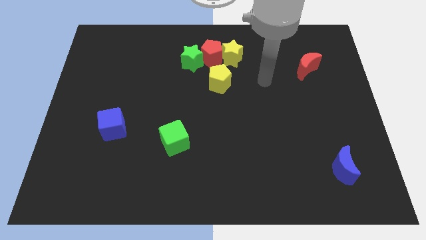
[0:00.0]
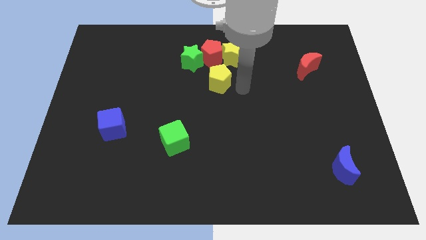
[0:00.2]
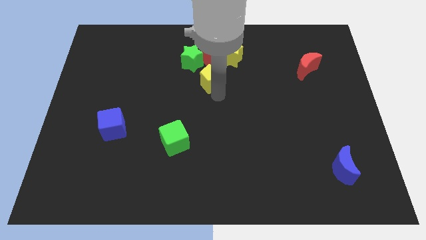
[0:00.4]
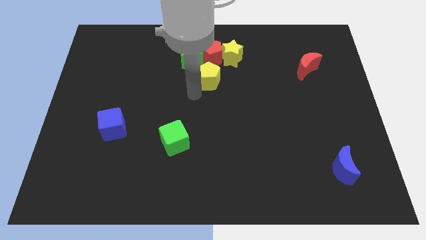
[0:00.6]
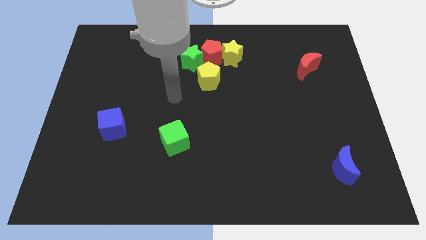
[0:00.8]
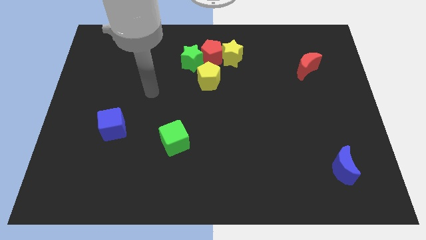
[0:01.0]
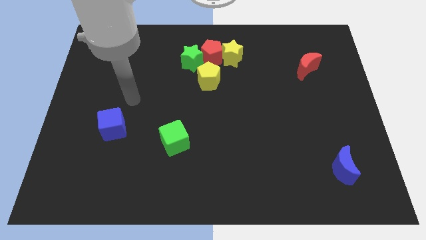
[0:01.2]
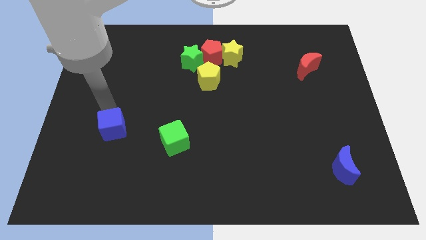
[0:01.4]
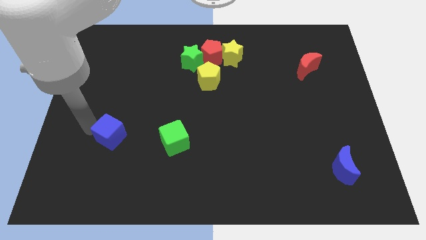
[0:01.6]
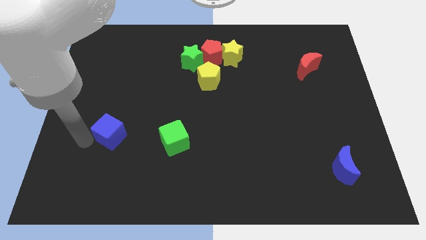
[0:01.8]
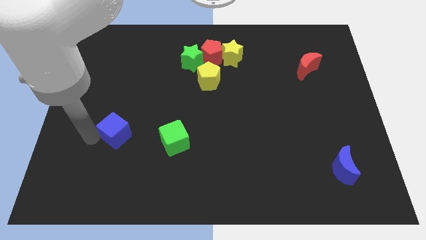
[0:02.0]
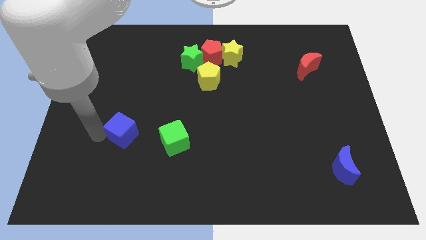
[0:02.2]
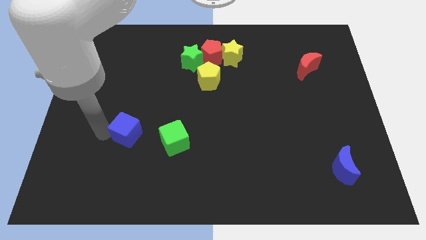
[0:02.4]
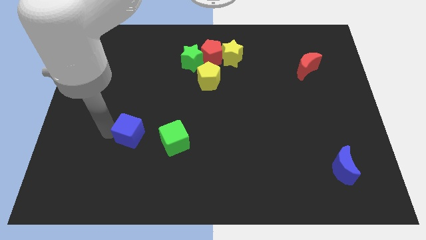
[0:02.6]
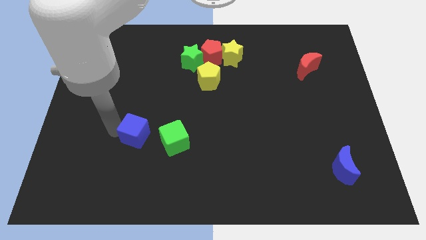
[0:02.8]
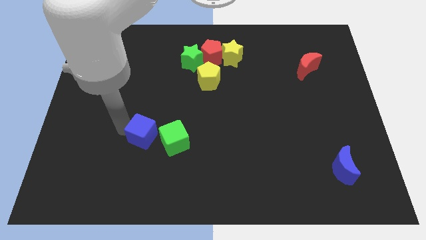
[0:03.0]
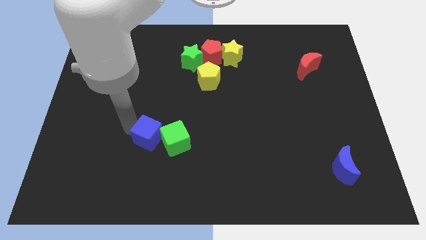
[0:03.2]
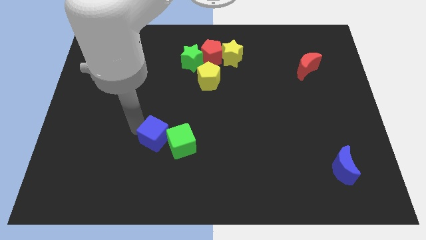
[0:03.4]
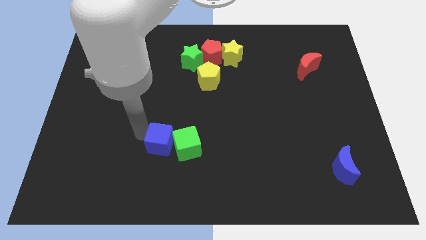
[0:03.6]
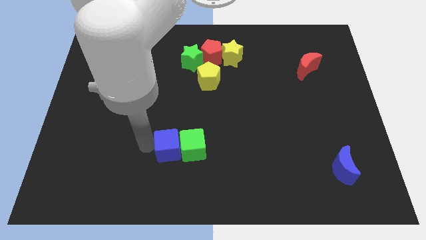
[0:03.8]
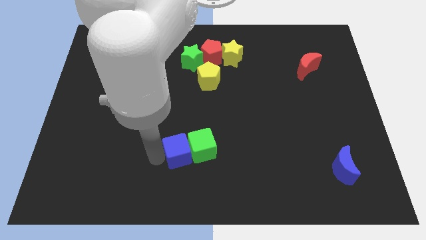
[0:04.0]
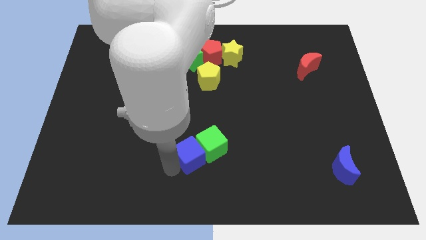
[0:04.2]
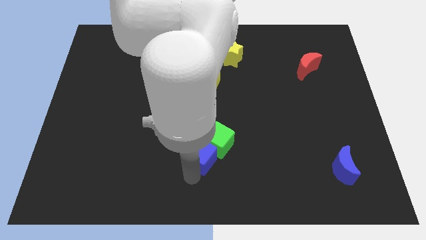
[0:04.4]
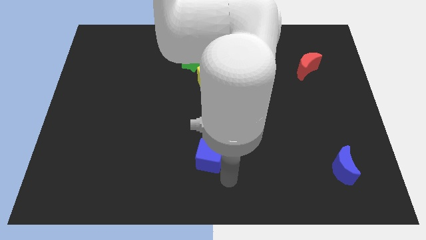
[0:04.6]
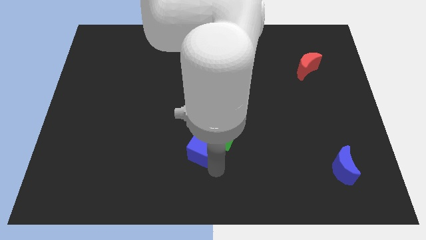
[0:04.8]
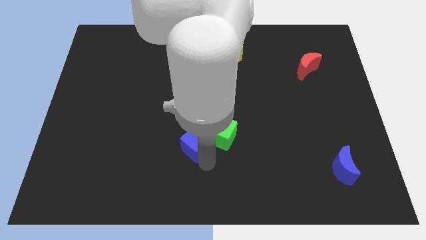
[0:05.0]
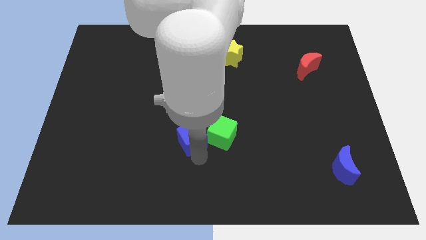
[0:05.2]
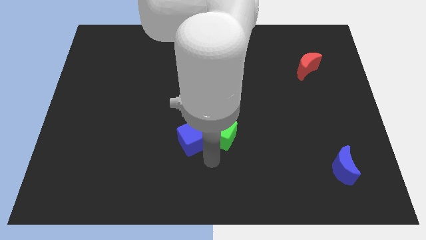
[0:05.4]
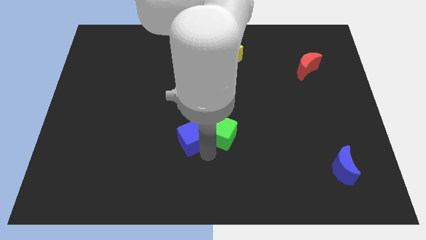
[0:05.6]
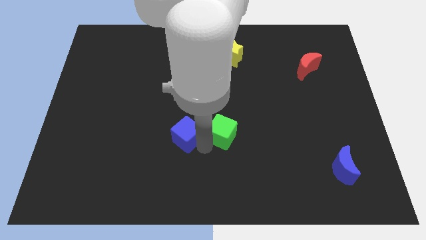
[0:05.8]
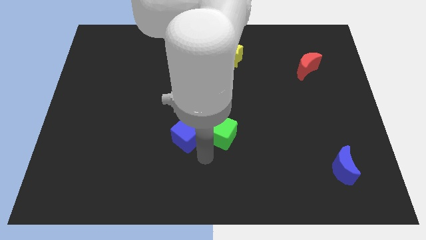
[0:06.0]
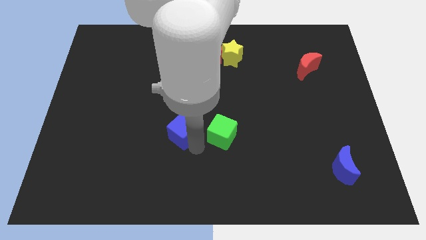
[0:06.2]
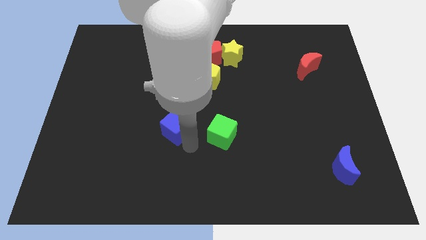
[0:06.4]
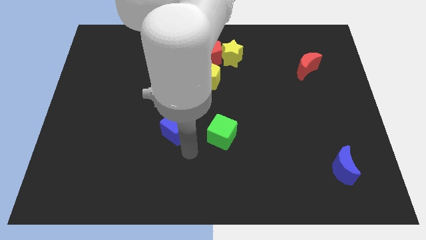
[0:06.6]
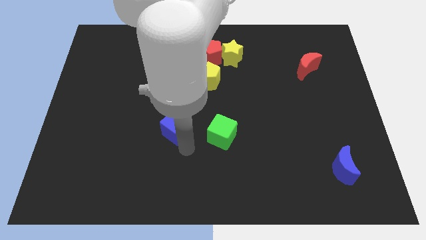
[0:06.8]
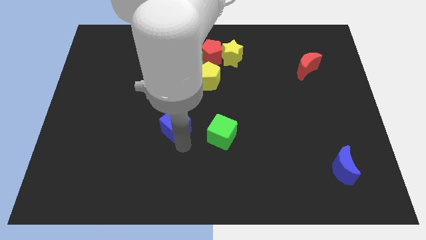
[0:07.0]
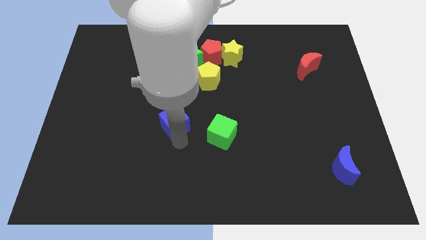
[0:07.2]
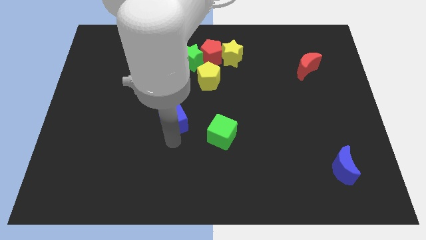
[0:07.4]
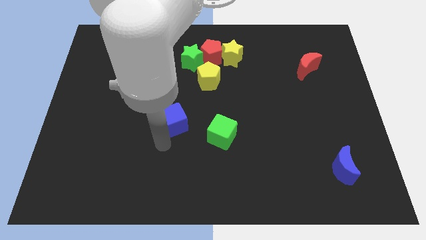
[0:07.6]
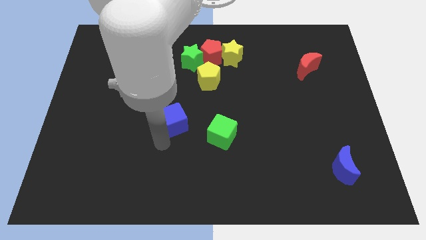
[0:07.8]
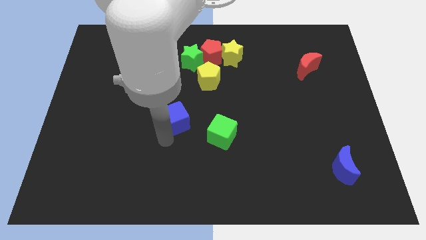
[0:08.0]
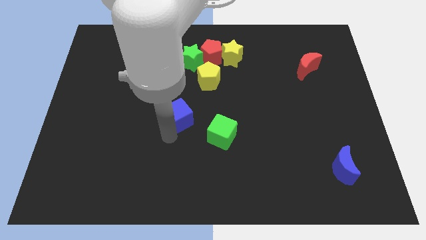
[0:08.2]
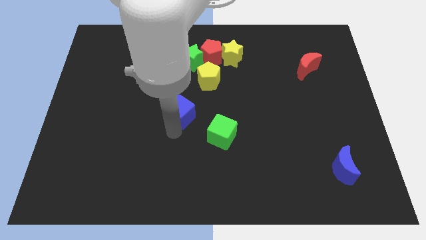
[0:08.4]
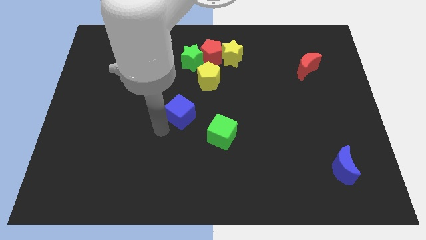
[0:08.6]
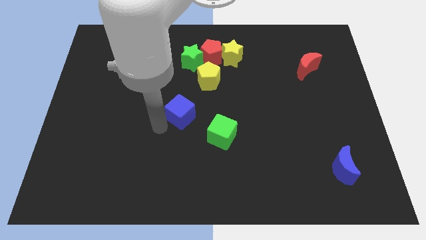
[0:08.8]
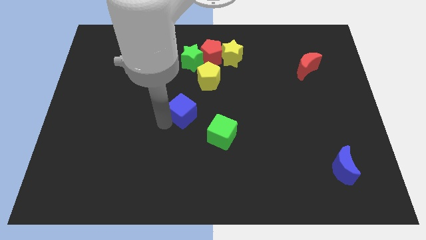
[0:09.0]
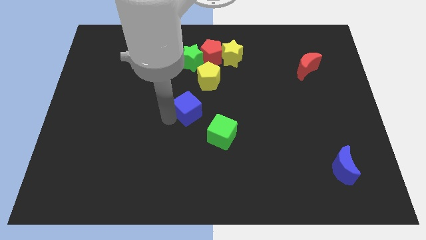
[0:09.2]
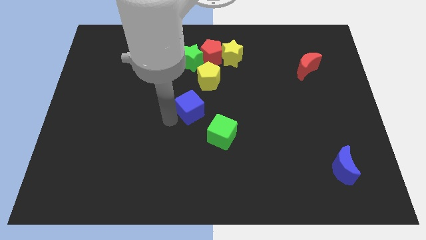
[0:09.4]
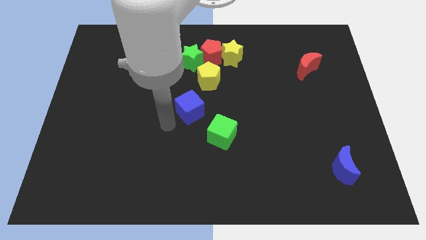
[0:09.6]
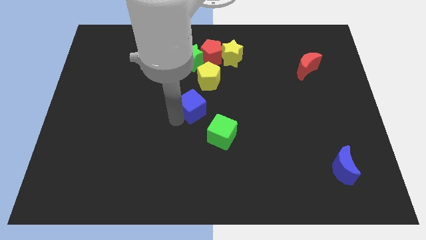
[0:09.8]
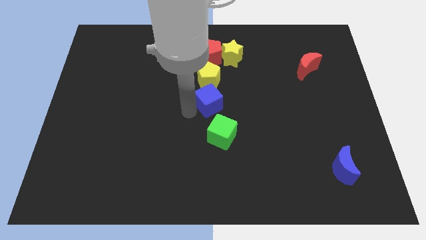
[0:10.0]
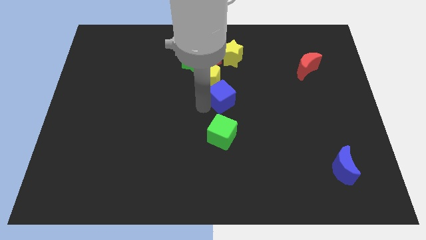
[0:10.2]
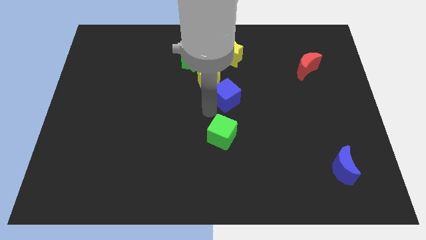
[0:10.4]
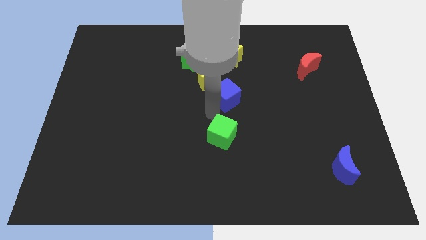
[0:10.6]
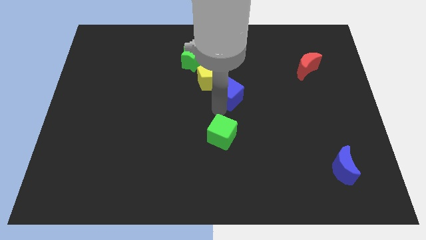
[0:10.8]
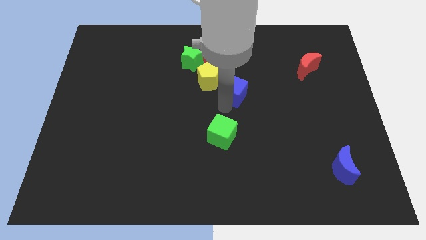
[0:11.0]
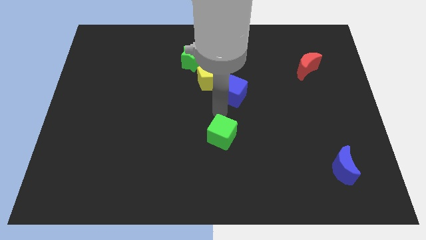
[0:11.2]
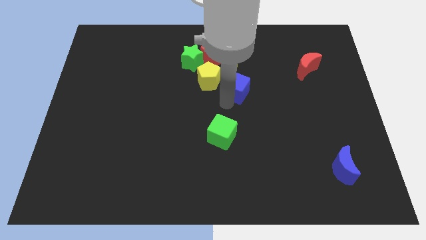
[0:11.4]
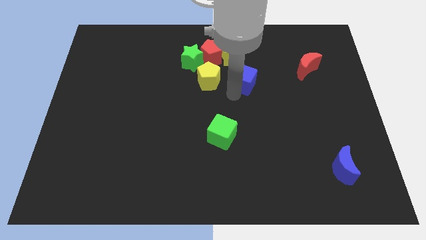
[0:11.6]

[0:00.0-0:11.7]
move the blue cube to the bottom right side of the yellow star

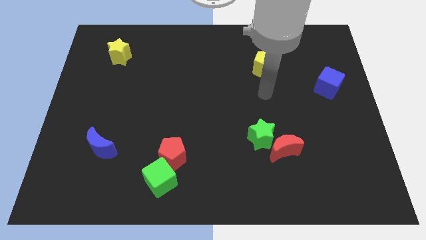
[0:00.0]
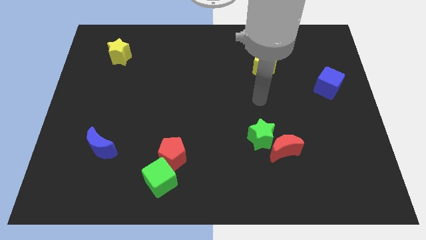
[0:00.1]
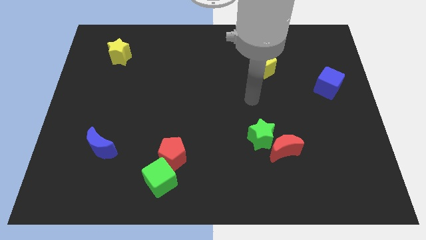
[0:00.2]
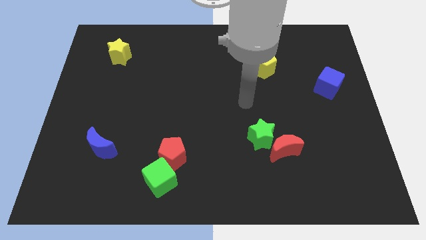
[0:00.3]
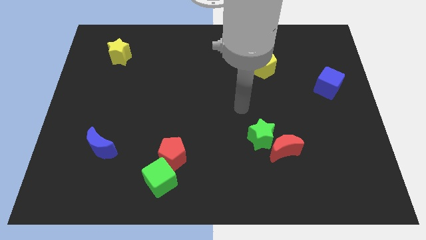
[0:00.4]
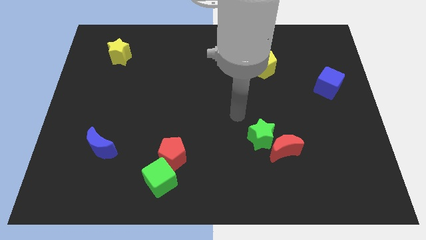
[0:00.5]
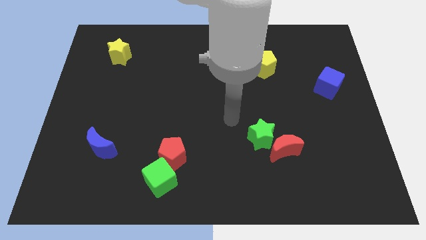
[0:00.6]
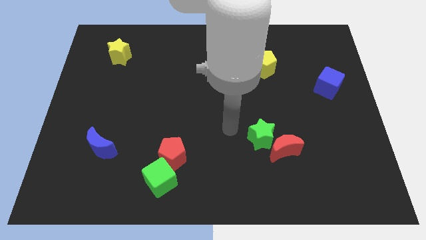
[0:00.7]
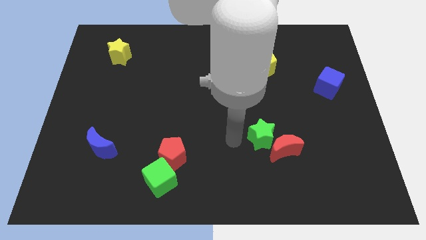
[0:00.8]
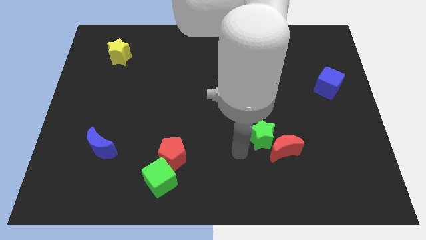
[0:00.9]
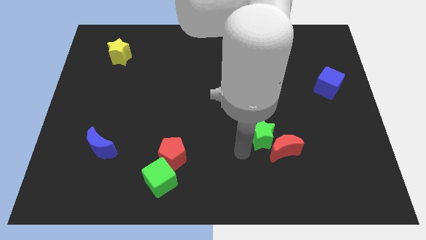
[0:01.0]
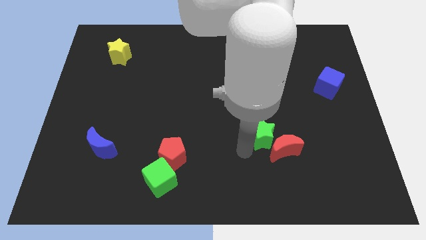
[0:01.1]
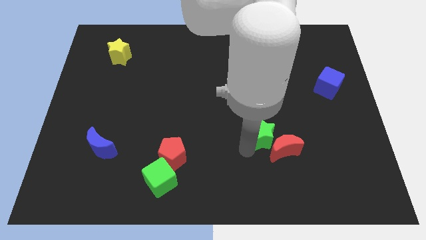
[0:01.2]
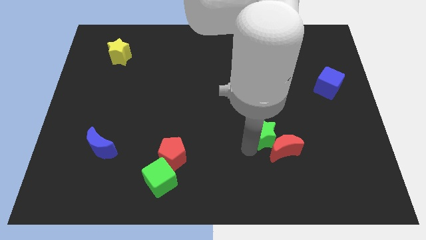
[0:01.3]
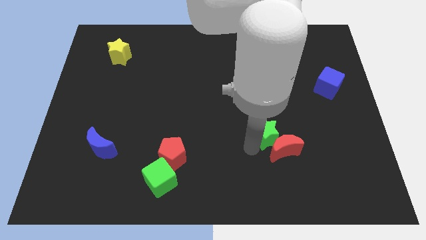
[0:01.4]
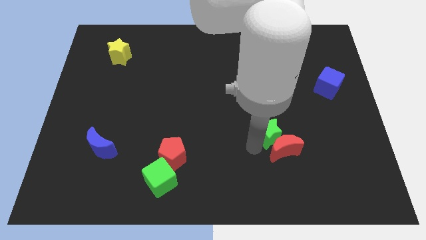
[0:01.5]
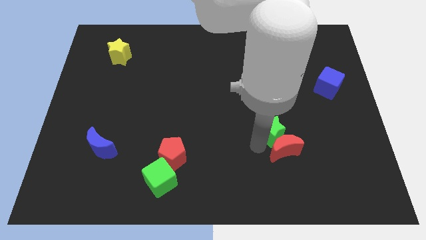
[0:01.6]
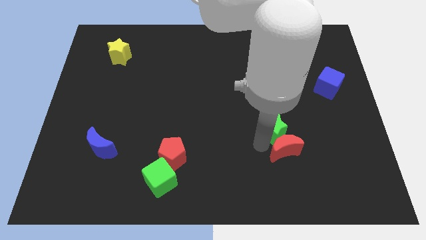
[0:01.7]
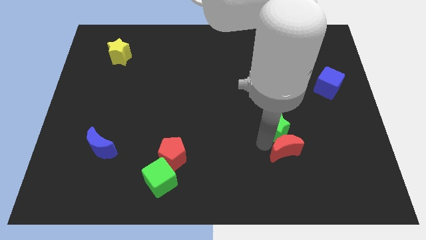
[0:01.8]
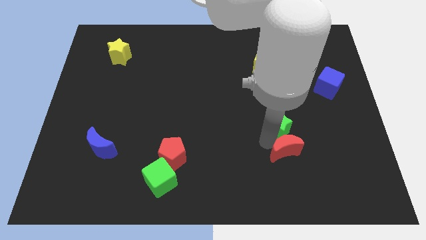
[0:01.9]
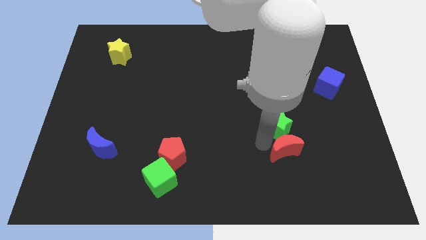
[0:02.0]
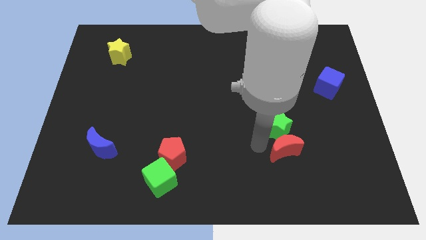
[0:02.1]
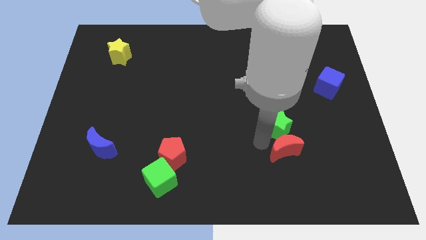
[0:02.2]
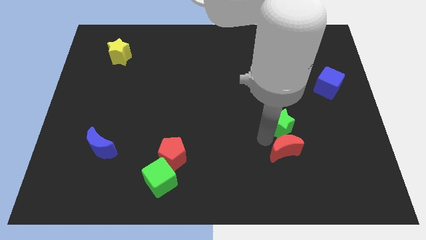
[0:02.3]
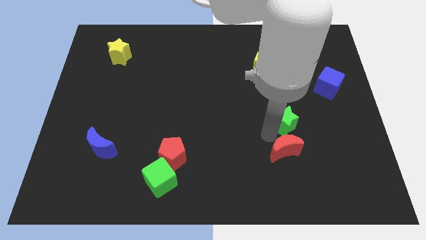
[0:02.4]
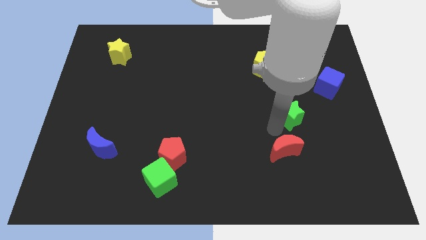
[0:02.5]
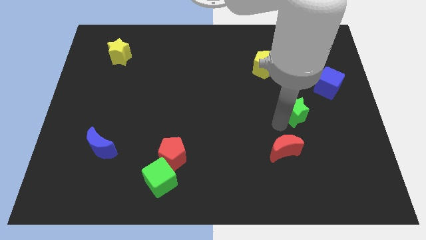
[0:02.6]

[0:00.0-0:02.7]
move the green star to the bottom left side of the blue cube
